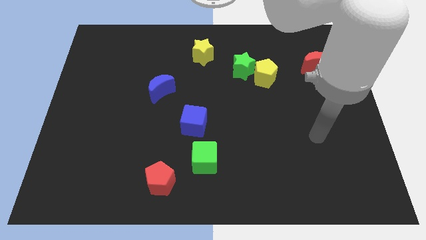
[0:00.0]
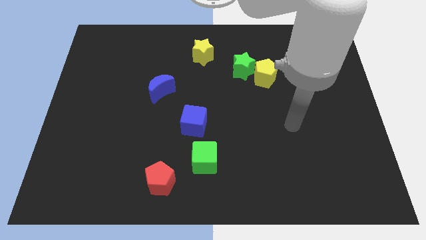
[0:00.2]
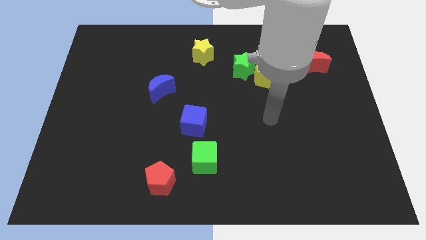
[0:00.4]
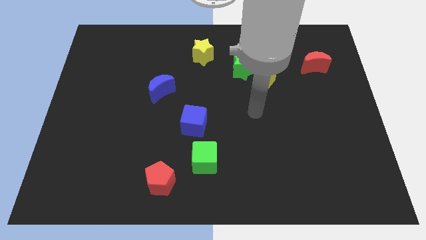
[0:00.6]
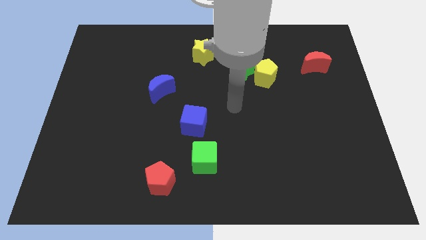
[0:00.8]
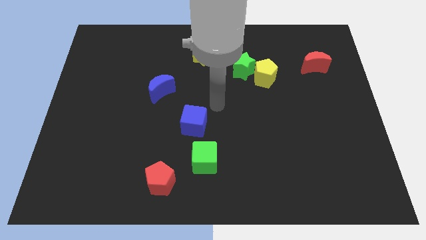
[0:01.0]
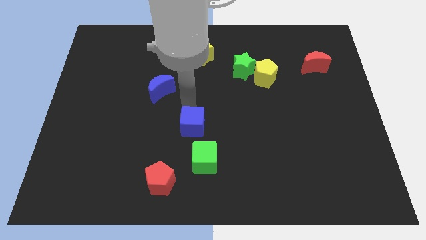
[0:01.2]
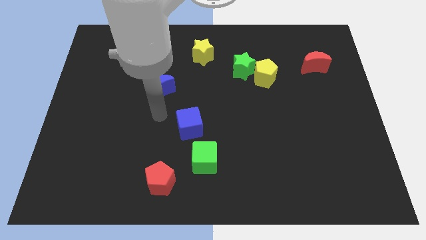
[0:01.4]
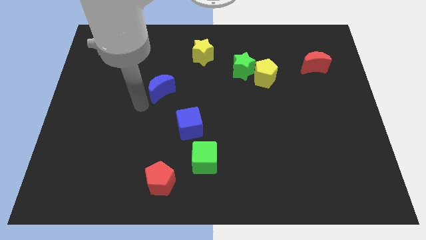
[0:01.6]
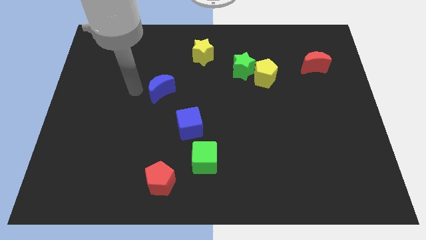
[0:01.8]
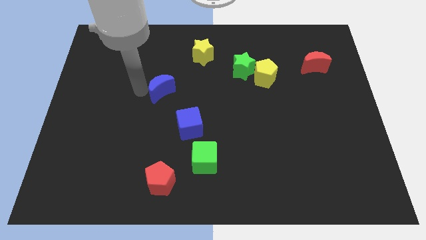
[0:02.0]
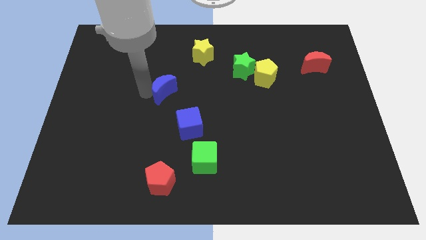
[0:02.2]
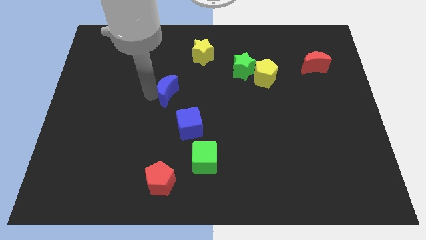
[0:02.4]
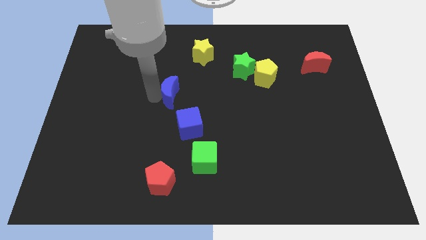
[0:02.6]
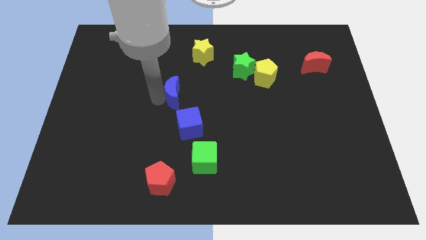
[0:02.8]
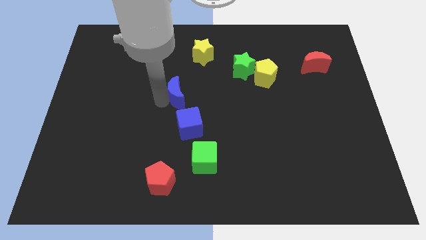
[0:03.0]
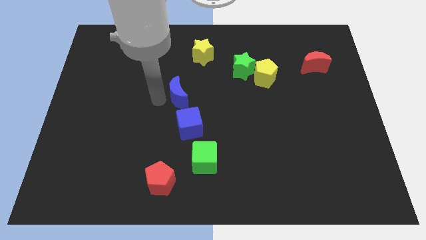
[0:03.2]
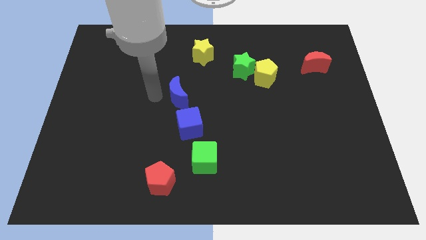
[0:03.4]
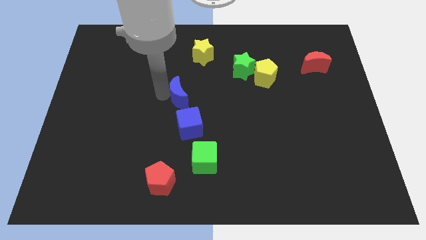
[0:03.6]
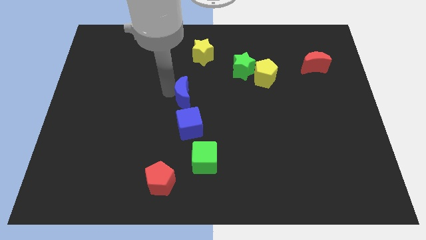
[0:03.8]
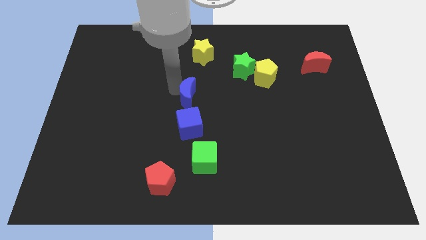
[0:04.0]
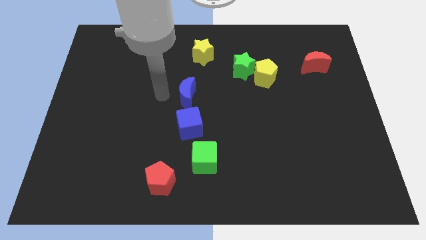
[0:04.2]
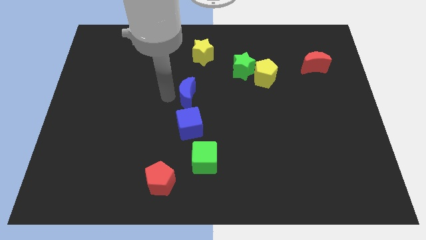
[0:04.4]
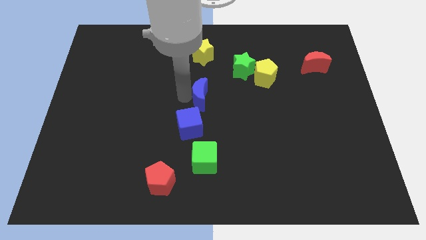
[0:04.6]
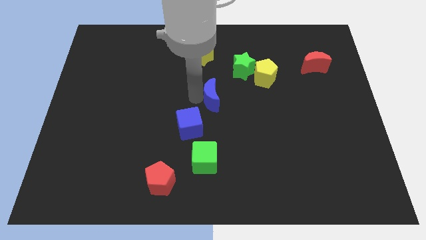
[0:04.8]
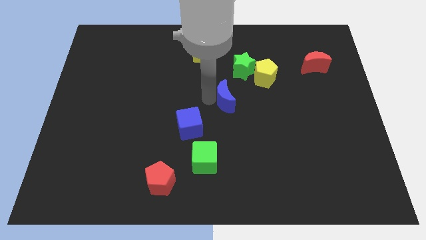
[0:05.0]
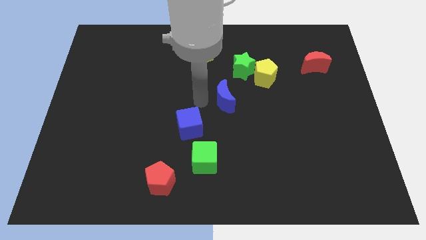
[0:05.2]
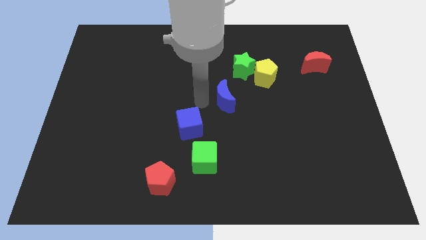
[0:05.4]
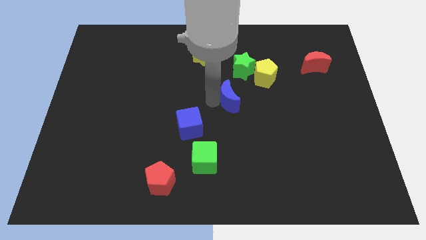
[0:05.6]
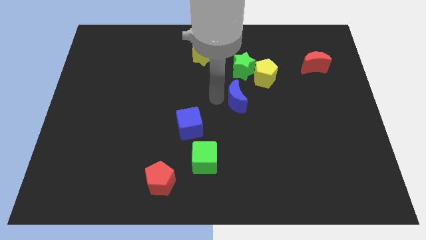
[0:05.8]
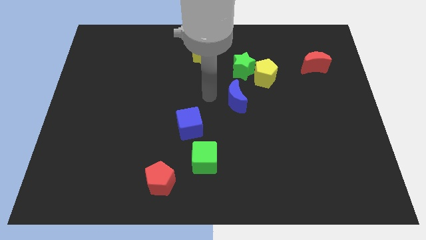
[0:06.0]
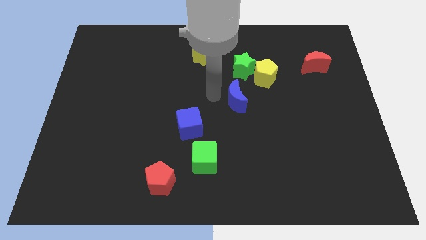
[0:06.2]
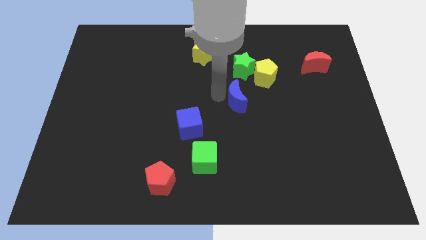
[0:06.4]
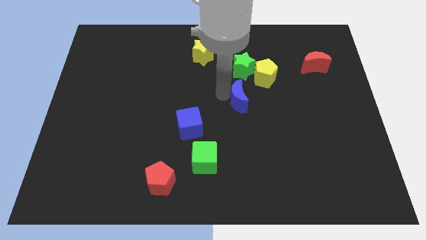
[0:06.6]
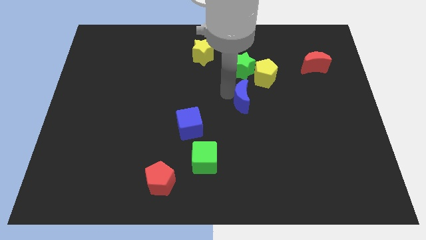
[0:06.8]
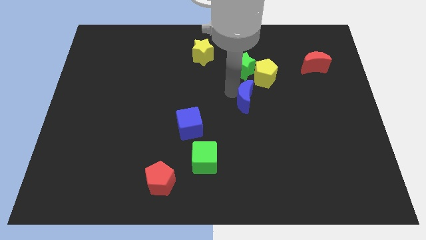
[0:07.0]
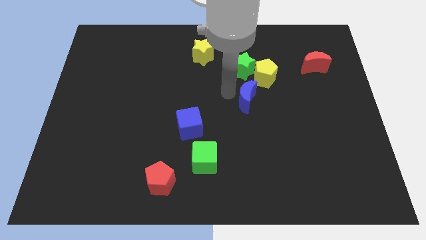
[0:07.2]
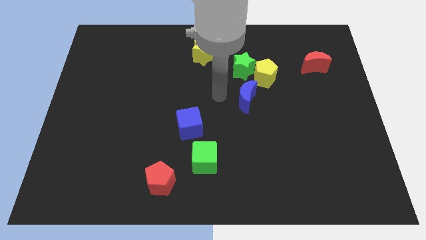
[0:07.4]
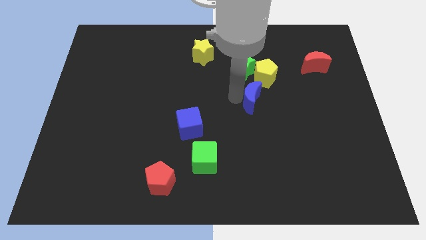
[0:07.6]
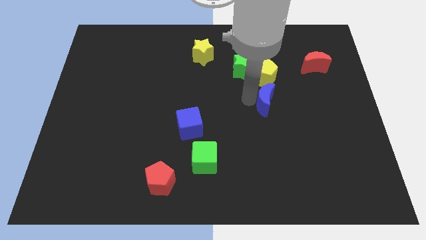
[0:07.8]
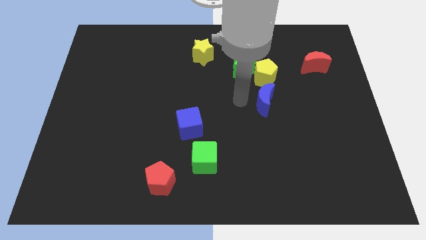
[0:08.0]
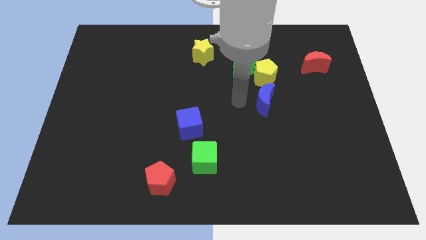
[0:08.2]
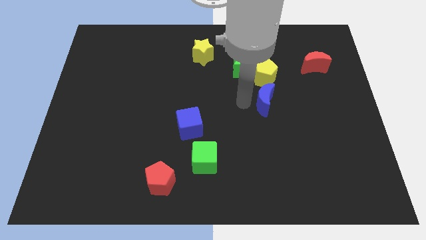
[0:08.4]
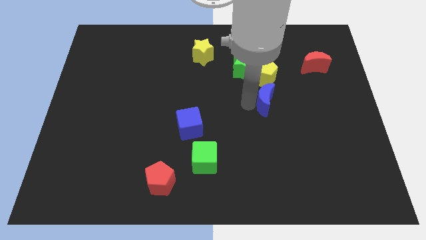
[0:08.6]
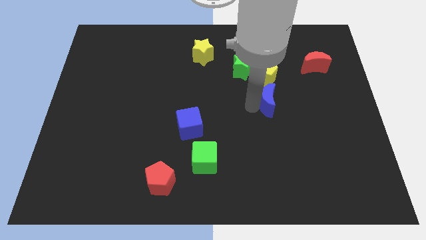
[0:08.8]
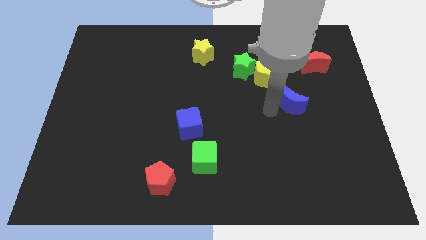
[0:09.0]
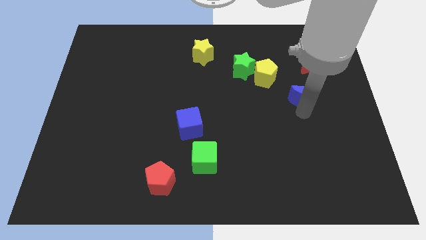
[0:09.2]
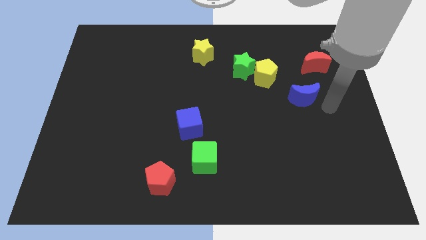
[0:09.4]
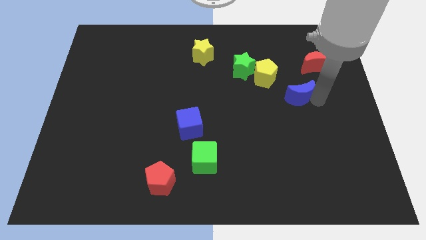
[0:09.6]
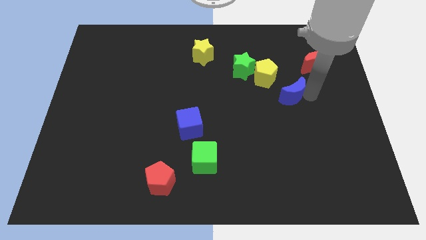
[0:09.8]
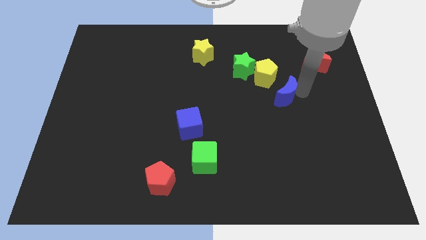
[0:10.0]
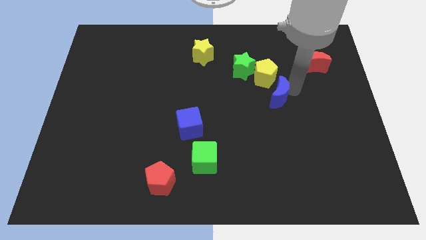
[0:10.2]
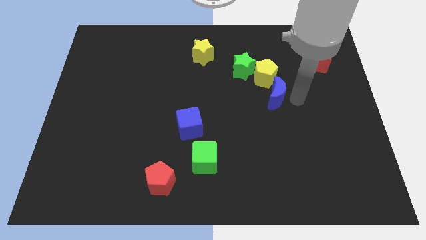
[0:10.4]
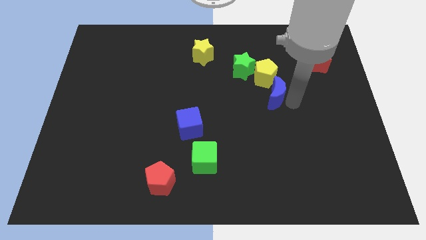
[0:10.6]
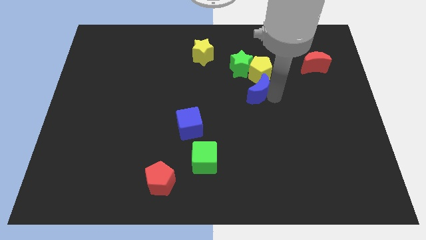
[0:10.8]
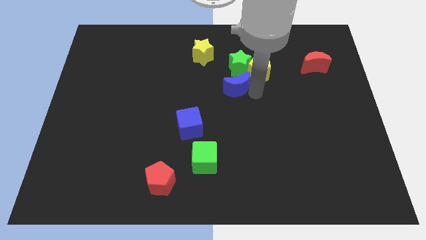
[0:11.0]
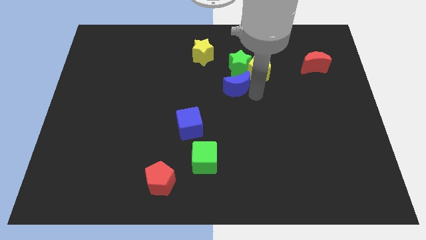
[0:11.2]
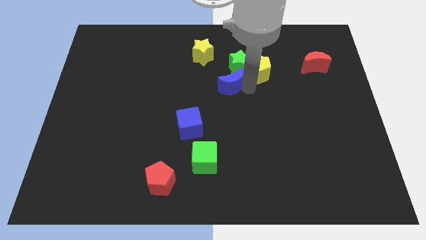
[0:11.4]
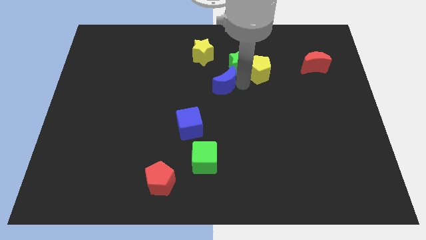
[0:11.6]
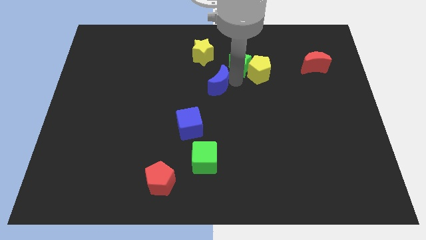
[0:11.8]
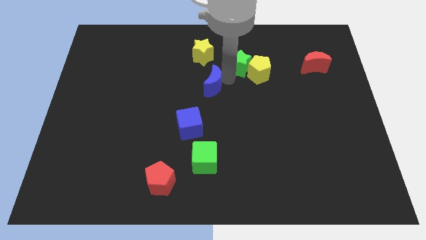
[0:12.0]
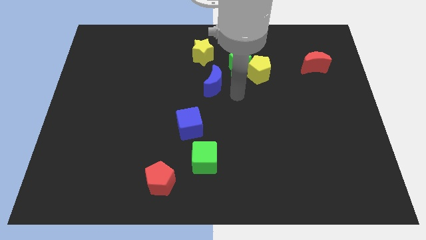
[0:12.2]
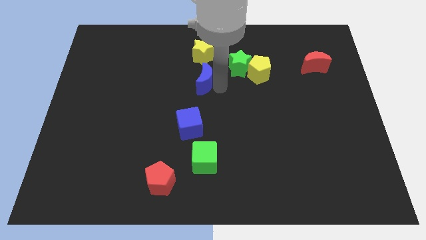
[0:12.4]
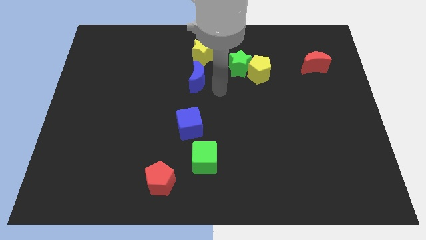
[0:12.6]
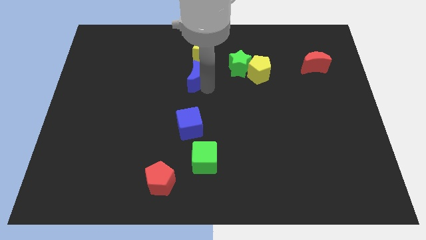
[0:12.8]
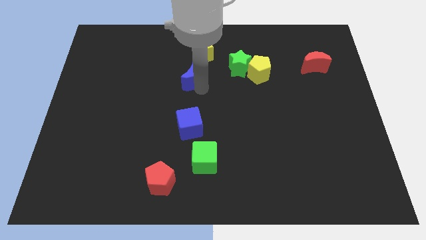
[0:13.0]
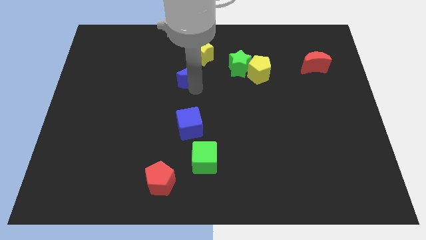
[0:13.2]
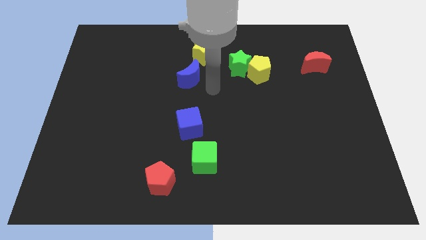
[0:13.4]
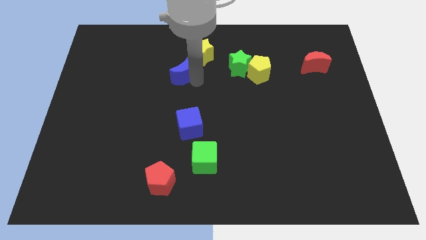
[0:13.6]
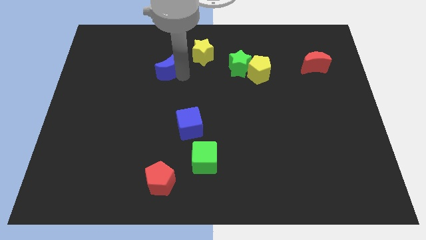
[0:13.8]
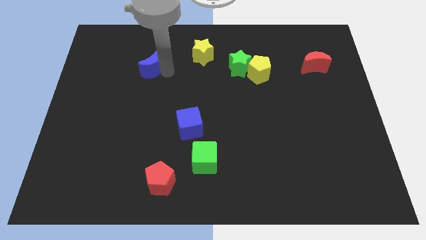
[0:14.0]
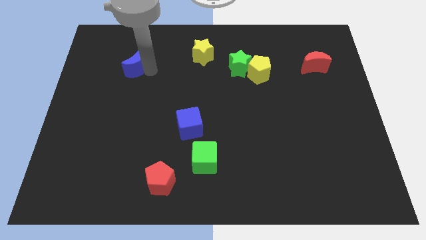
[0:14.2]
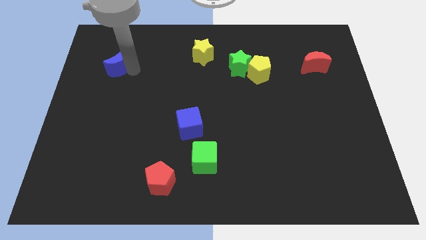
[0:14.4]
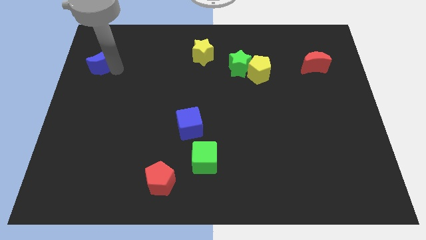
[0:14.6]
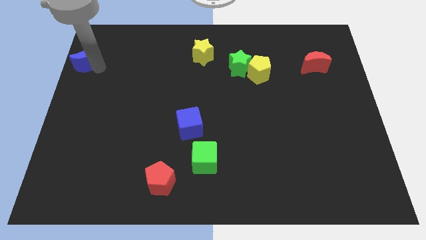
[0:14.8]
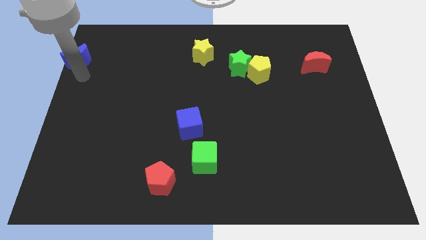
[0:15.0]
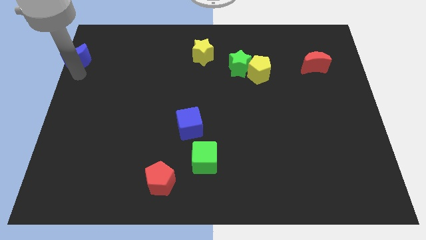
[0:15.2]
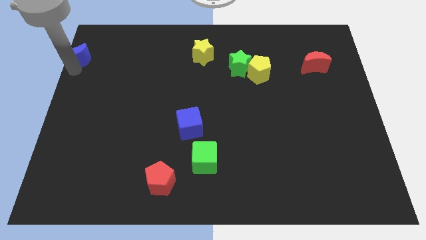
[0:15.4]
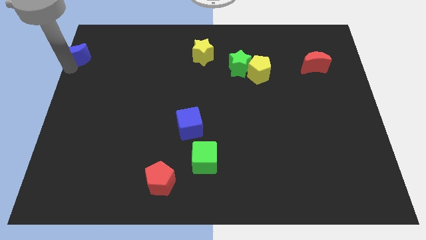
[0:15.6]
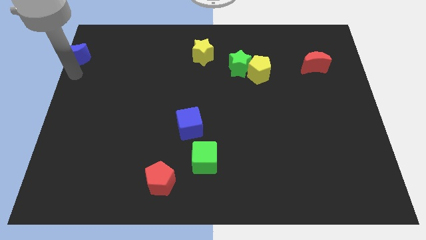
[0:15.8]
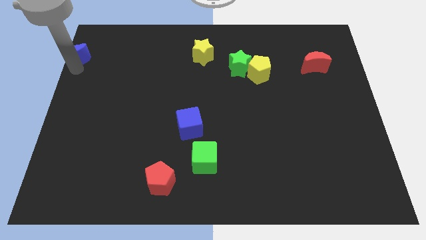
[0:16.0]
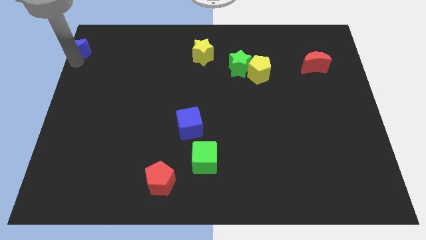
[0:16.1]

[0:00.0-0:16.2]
move the blue moon to the top left of the board
